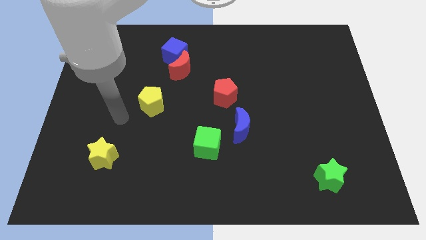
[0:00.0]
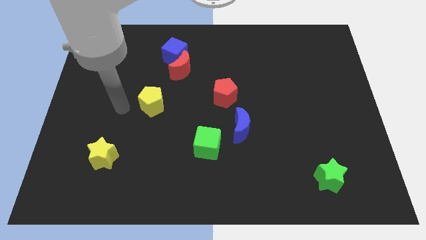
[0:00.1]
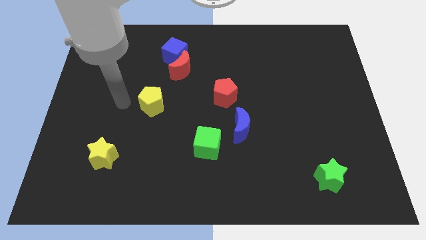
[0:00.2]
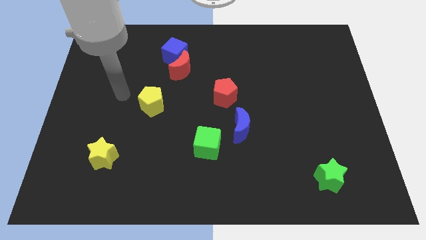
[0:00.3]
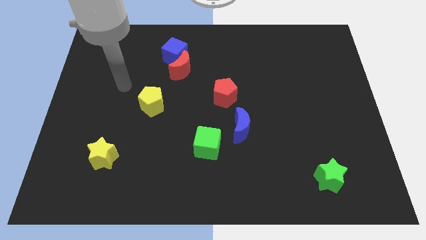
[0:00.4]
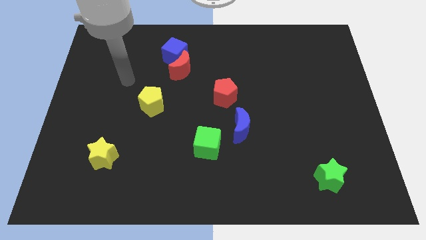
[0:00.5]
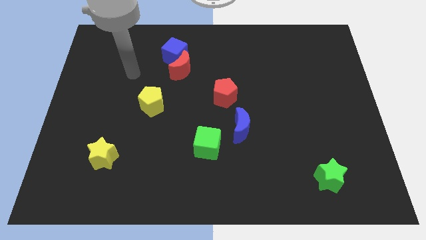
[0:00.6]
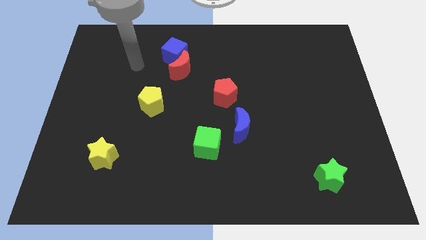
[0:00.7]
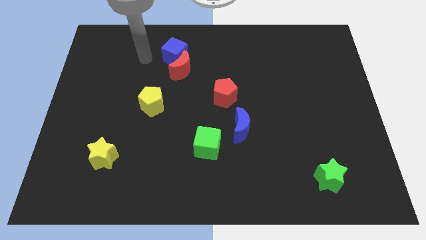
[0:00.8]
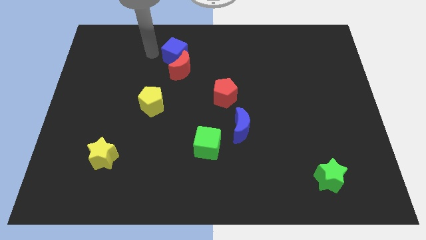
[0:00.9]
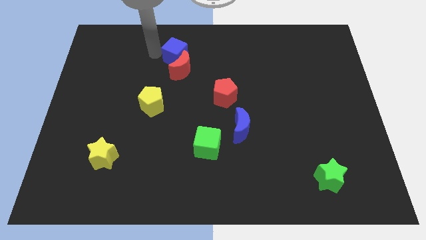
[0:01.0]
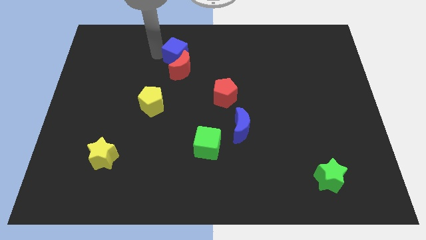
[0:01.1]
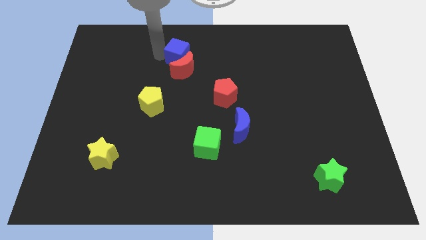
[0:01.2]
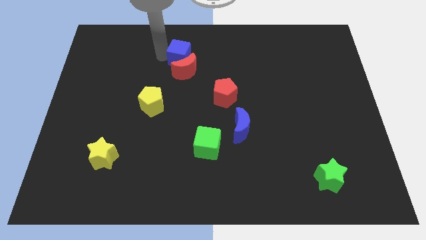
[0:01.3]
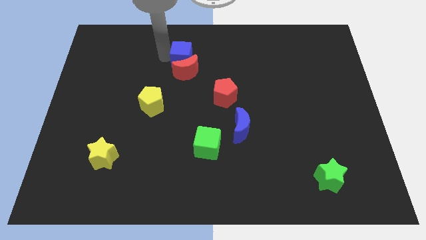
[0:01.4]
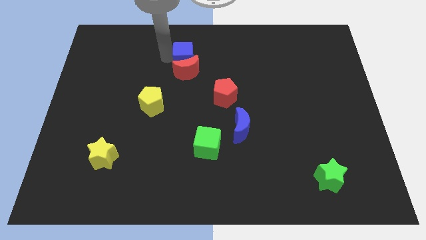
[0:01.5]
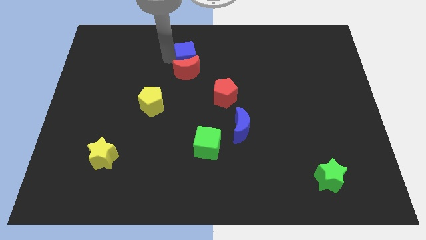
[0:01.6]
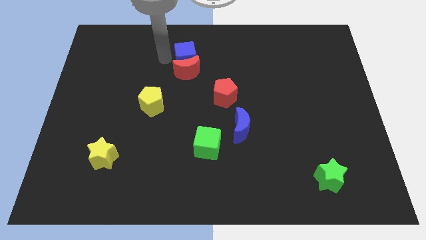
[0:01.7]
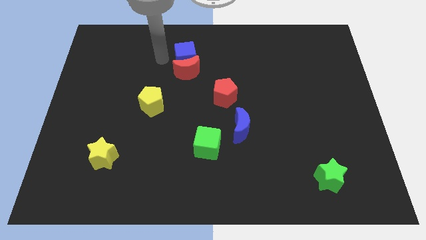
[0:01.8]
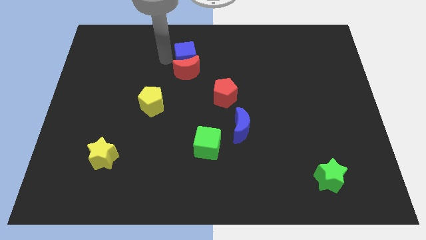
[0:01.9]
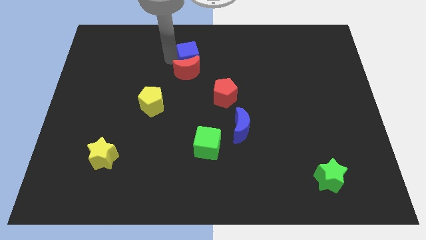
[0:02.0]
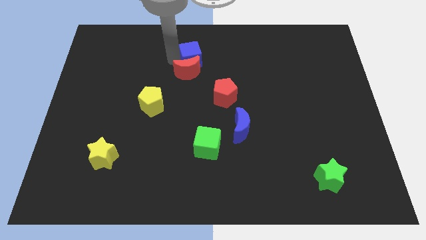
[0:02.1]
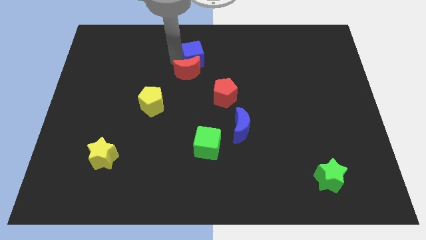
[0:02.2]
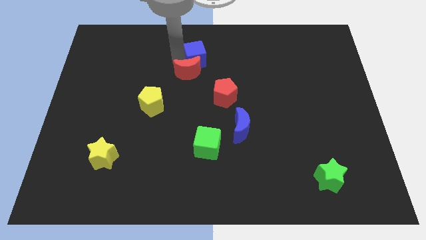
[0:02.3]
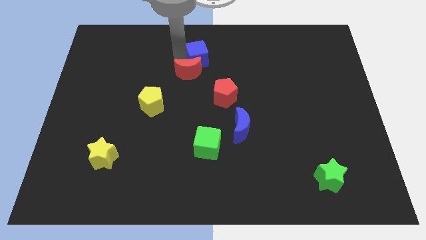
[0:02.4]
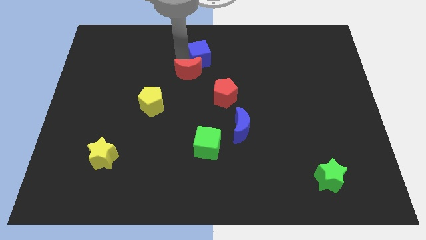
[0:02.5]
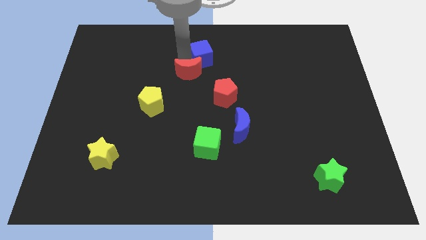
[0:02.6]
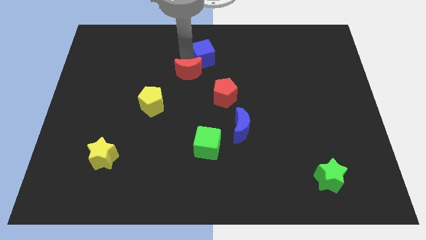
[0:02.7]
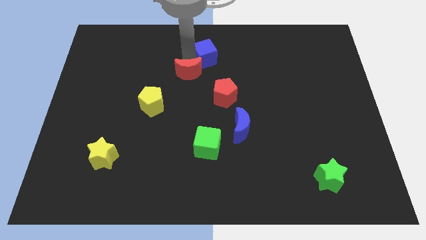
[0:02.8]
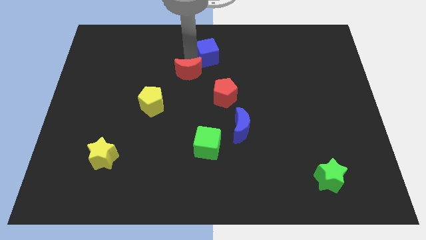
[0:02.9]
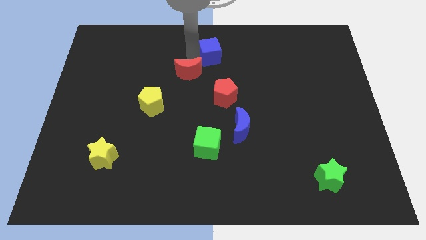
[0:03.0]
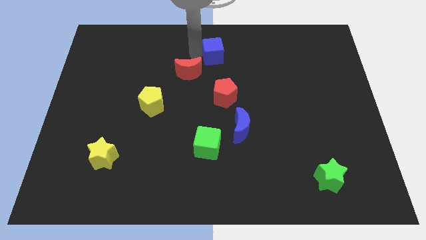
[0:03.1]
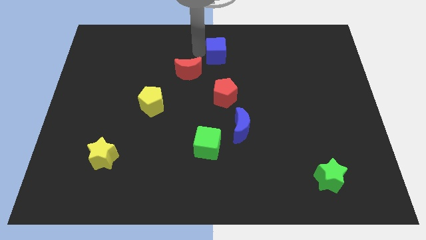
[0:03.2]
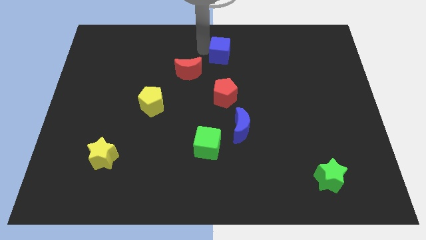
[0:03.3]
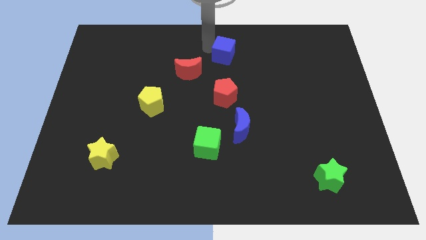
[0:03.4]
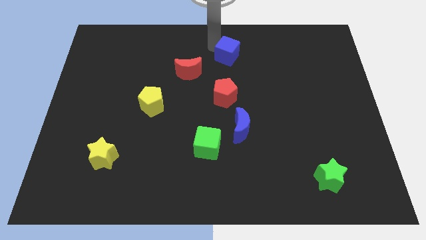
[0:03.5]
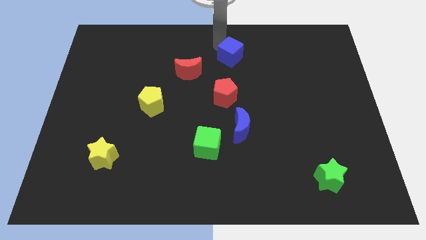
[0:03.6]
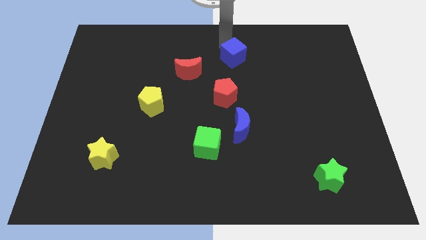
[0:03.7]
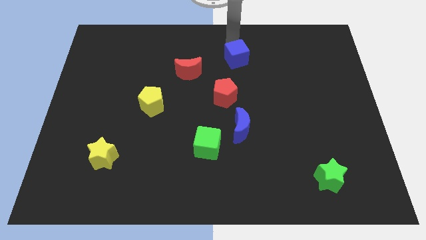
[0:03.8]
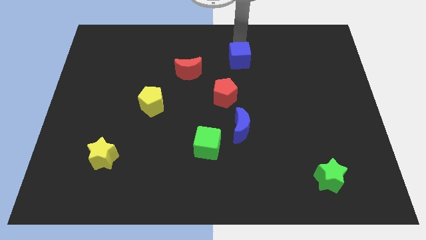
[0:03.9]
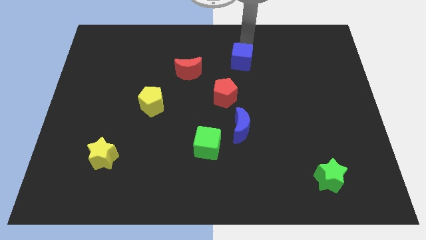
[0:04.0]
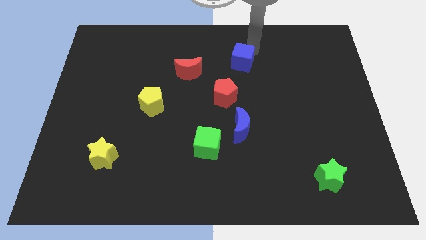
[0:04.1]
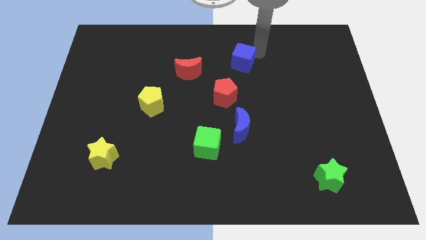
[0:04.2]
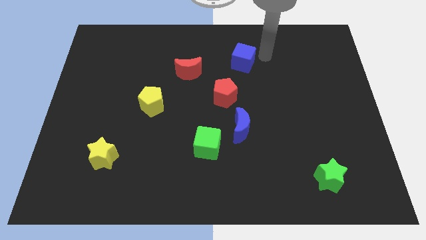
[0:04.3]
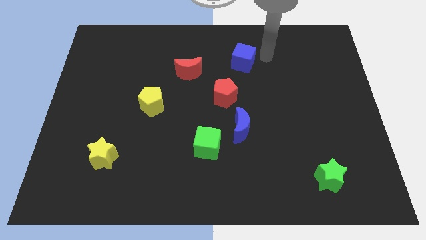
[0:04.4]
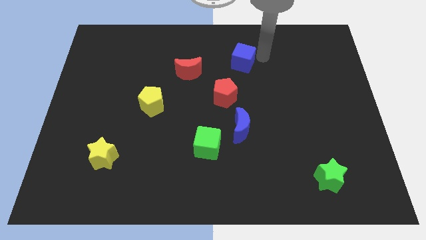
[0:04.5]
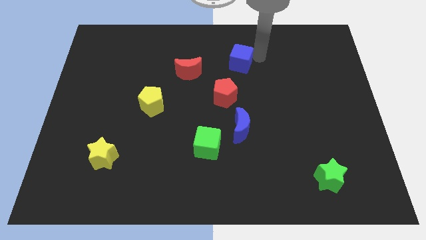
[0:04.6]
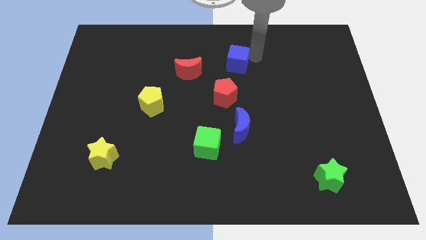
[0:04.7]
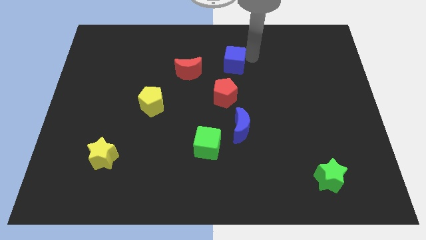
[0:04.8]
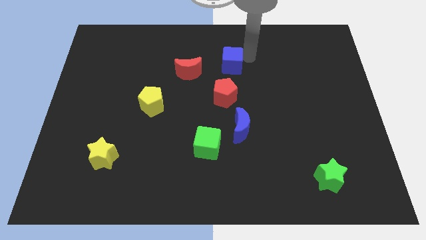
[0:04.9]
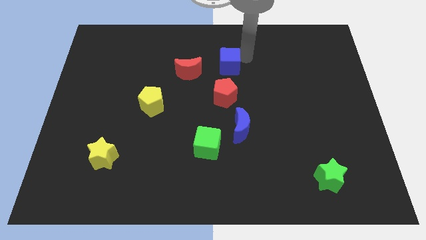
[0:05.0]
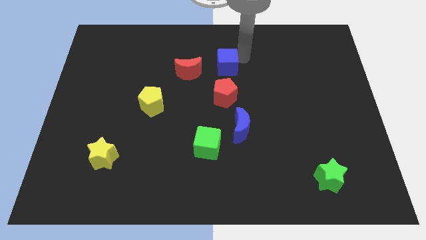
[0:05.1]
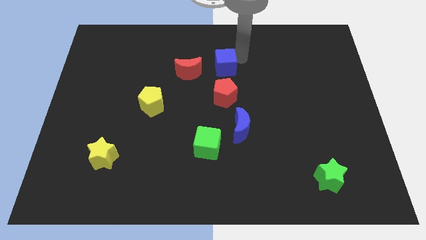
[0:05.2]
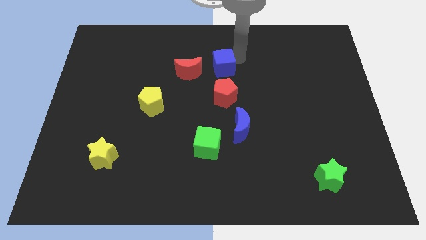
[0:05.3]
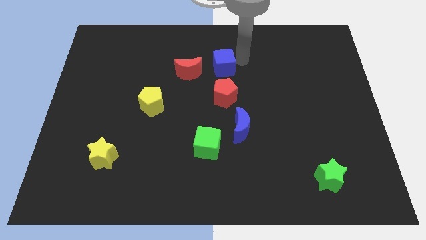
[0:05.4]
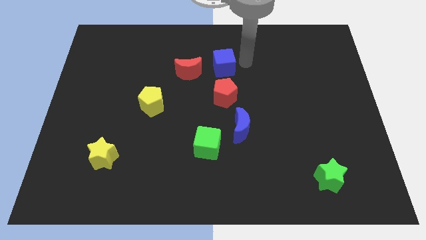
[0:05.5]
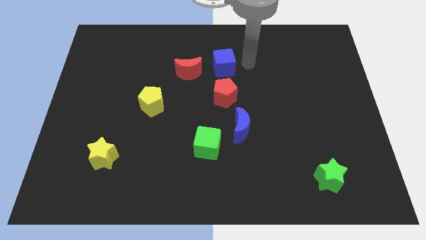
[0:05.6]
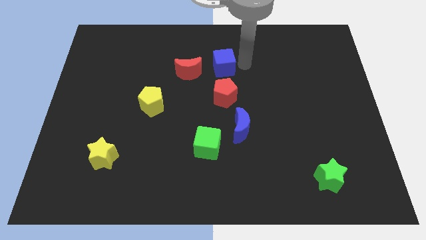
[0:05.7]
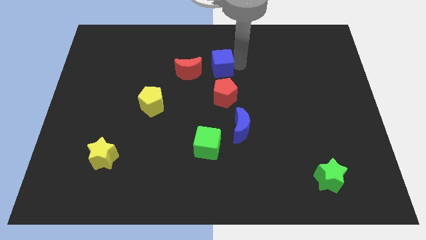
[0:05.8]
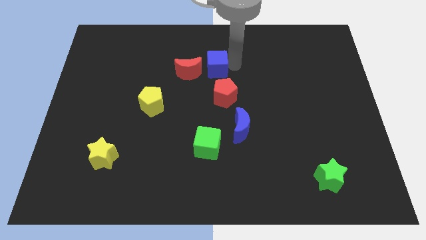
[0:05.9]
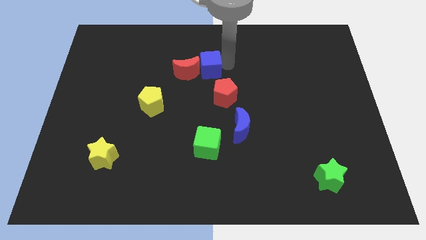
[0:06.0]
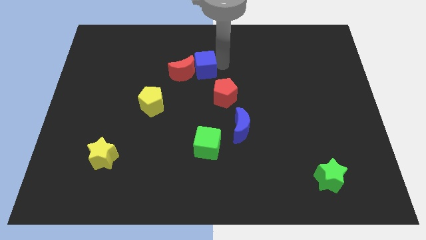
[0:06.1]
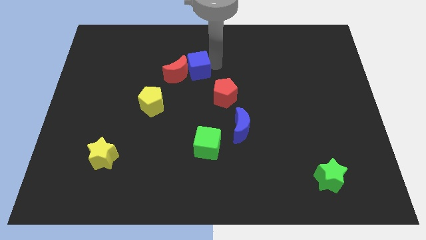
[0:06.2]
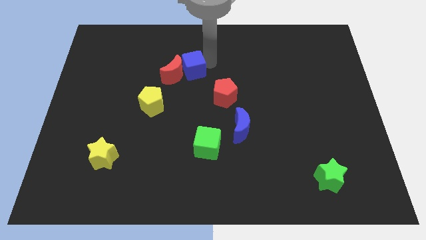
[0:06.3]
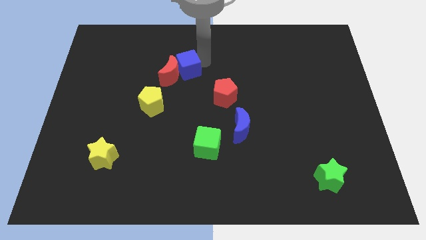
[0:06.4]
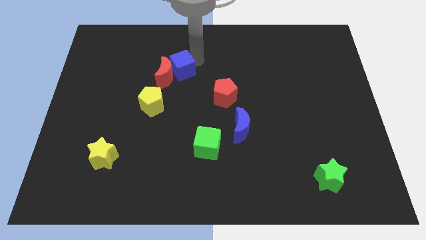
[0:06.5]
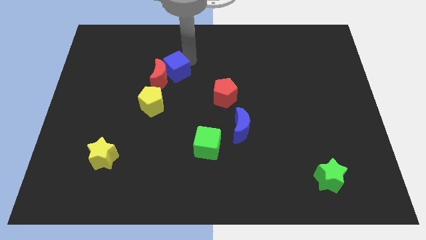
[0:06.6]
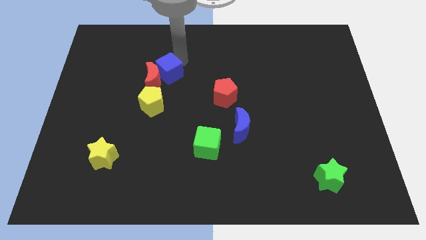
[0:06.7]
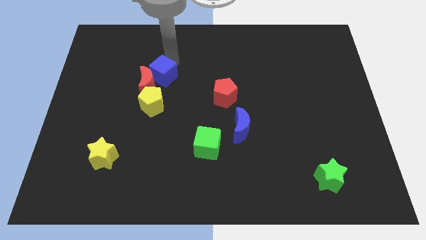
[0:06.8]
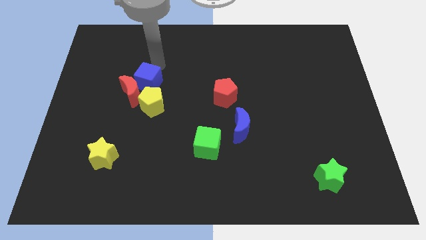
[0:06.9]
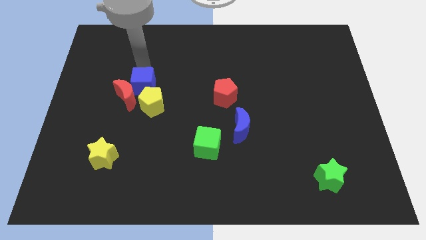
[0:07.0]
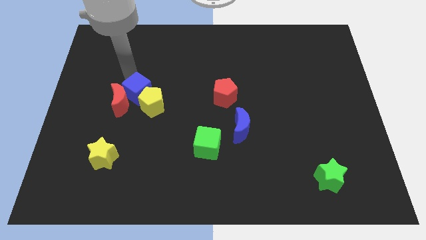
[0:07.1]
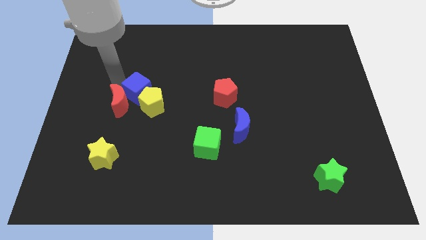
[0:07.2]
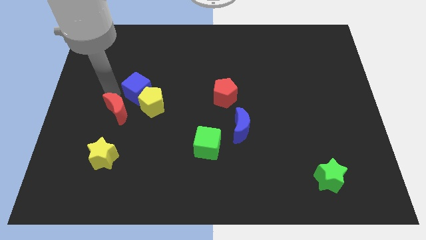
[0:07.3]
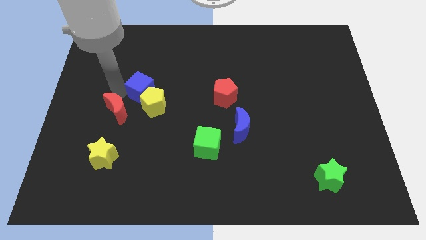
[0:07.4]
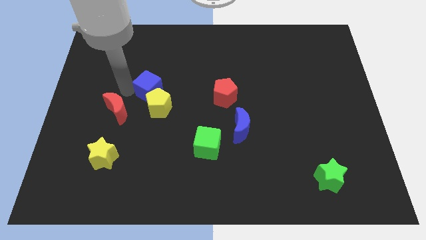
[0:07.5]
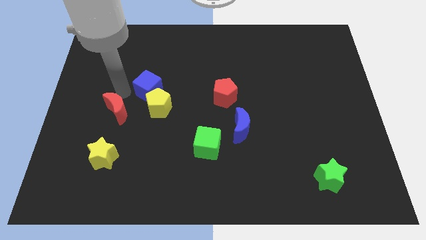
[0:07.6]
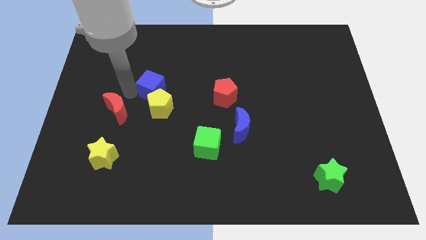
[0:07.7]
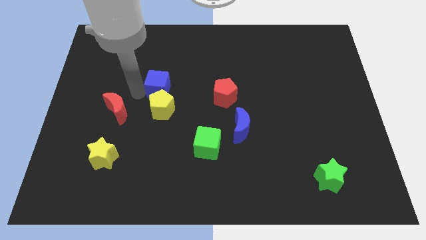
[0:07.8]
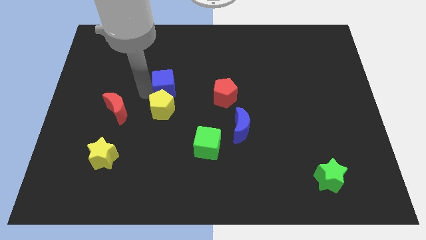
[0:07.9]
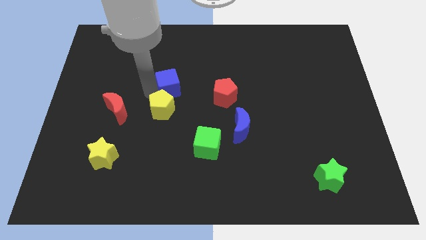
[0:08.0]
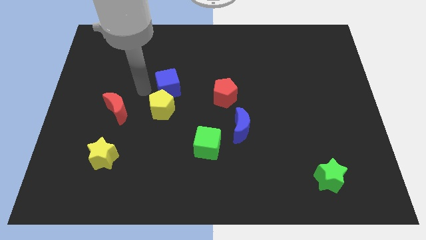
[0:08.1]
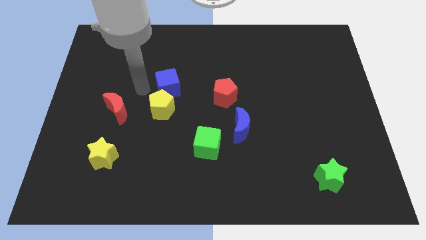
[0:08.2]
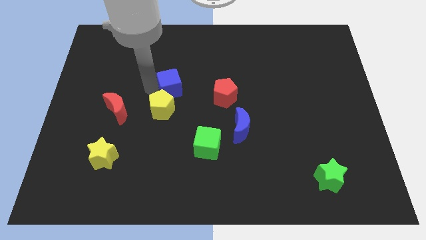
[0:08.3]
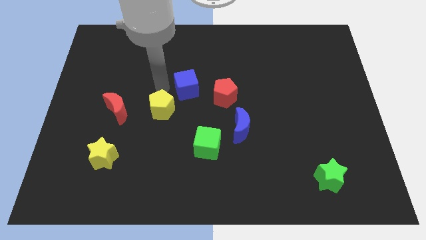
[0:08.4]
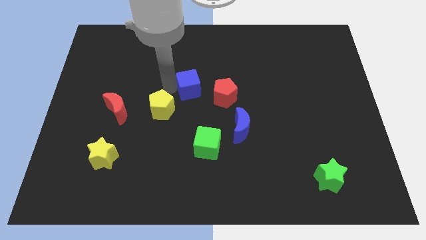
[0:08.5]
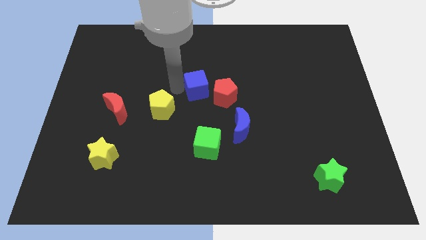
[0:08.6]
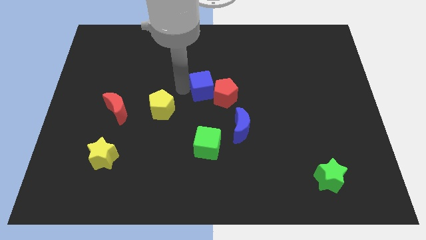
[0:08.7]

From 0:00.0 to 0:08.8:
push the blue cube close to the red pentagon
